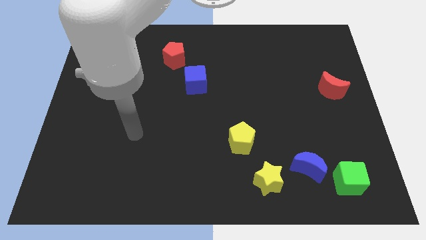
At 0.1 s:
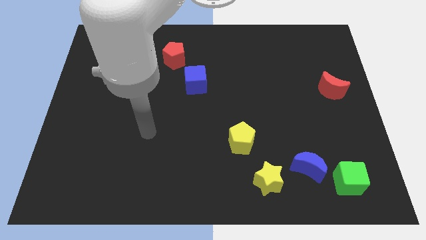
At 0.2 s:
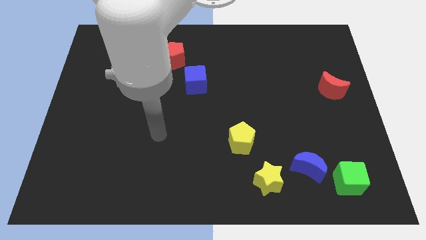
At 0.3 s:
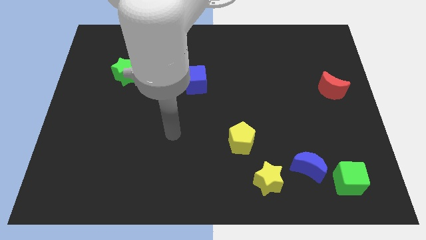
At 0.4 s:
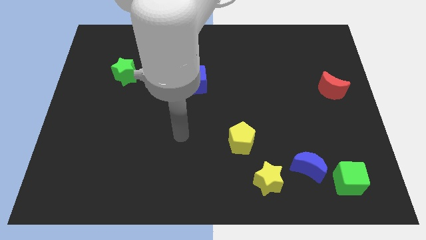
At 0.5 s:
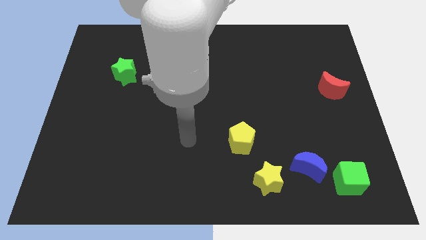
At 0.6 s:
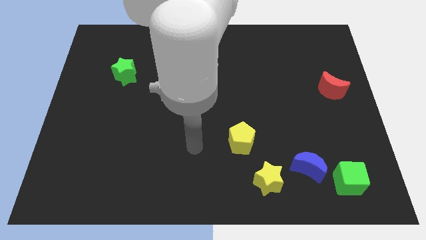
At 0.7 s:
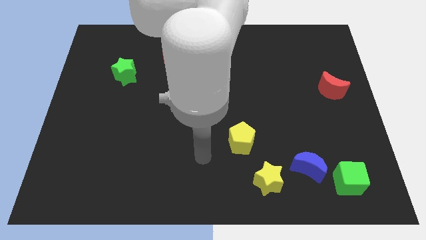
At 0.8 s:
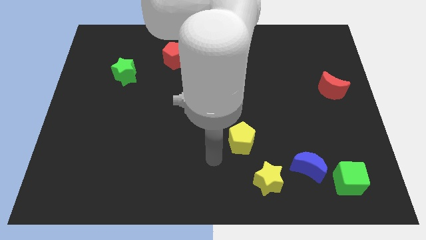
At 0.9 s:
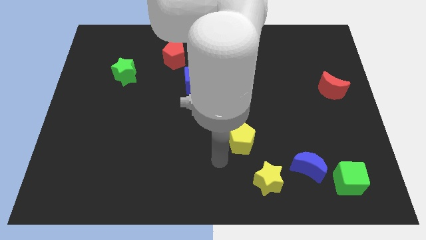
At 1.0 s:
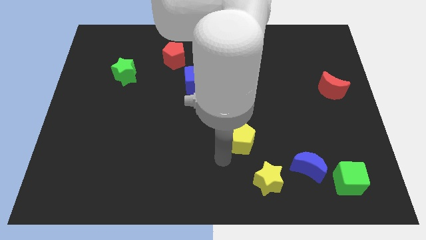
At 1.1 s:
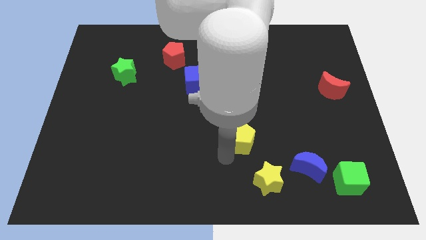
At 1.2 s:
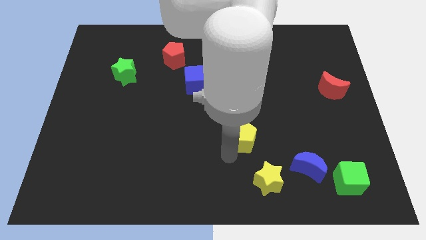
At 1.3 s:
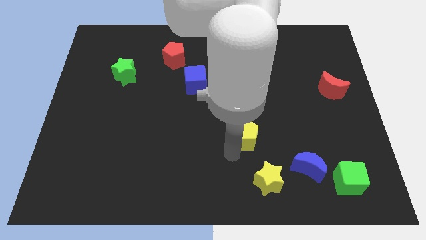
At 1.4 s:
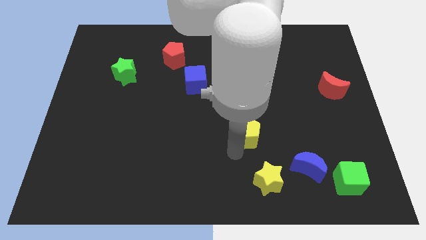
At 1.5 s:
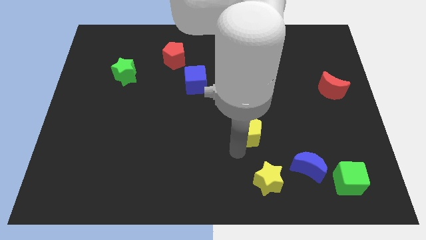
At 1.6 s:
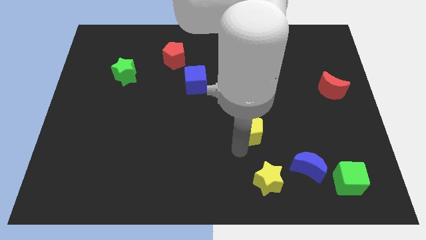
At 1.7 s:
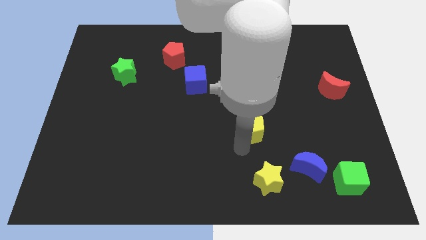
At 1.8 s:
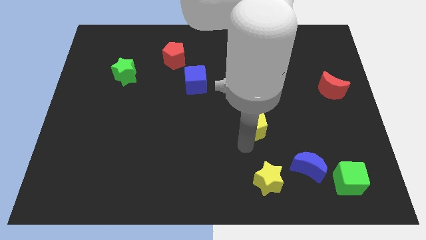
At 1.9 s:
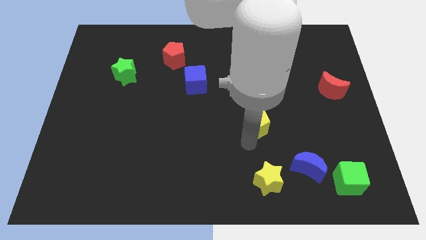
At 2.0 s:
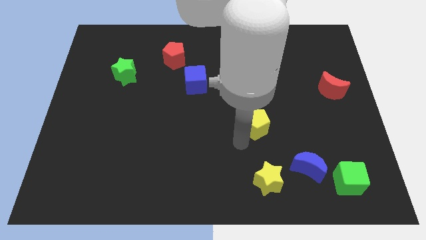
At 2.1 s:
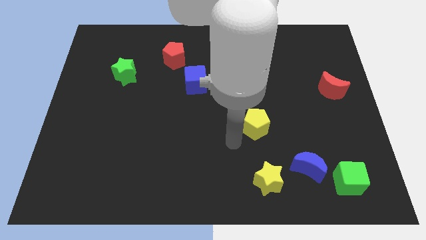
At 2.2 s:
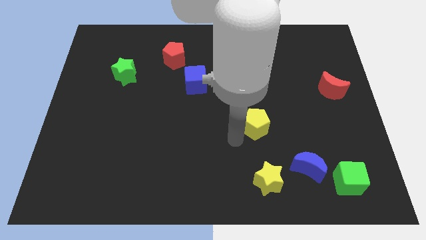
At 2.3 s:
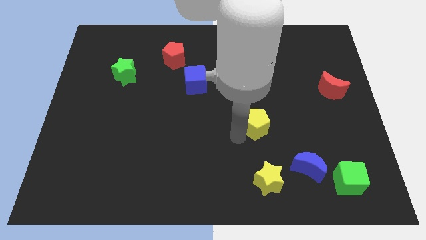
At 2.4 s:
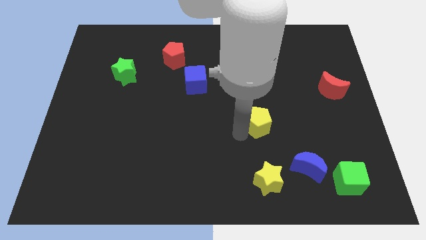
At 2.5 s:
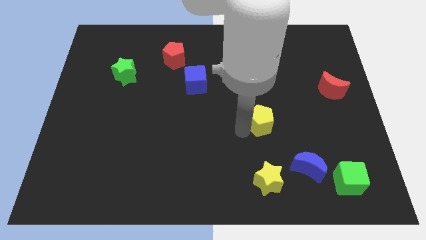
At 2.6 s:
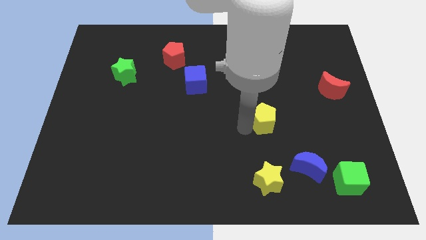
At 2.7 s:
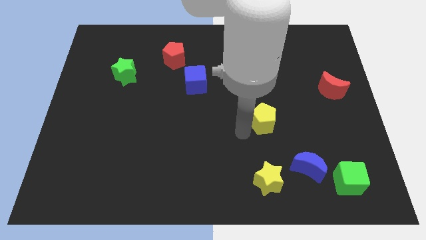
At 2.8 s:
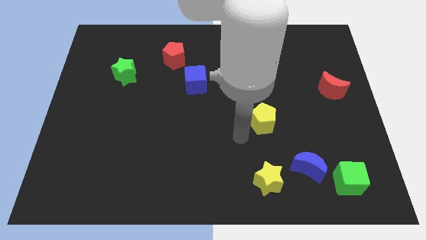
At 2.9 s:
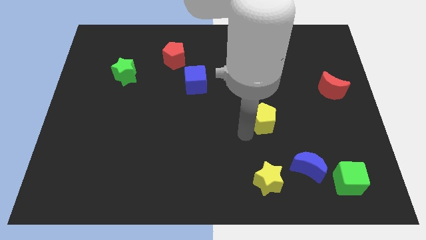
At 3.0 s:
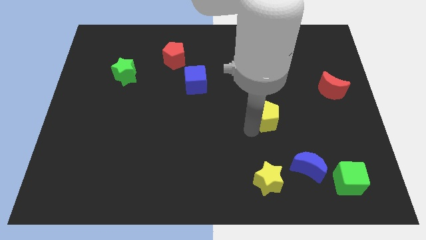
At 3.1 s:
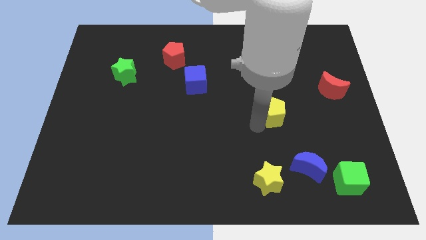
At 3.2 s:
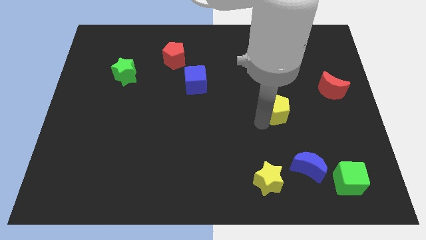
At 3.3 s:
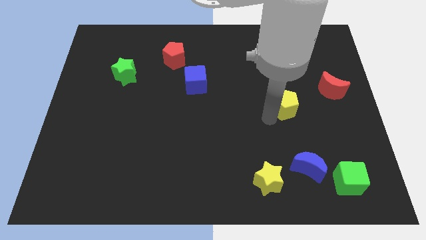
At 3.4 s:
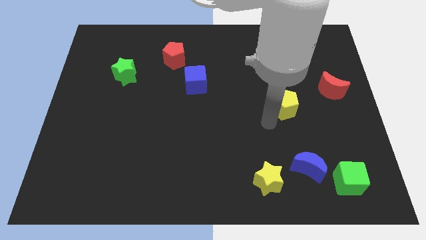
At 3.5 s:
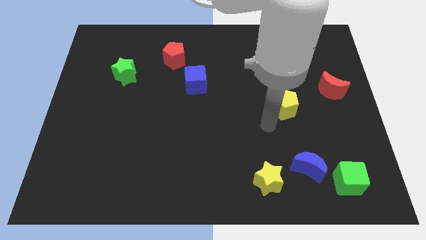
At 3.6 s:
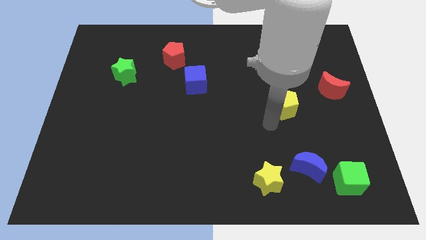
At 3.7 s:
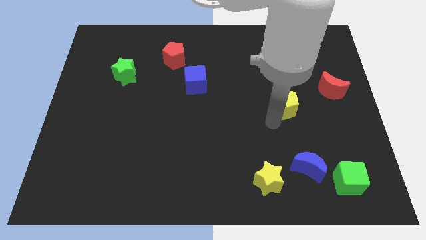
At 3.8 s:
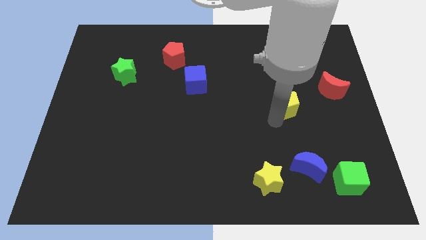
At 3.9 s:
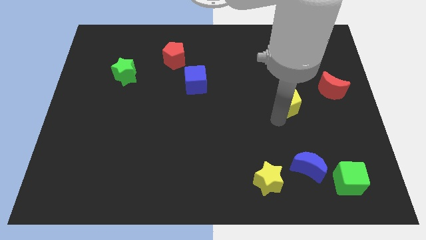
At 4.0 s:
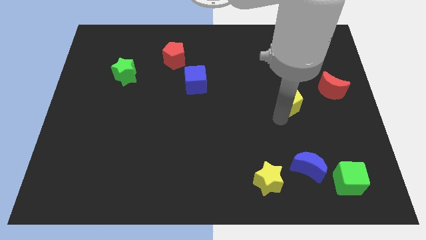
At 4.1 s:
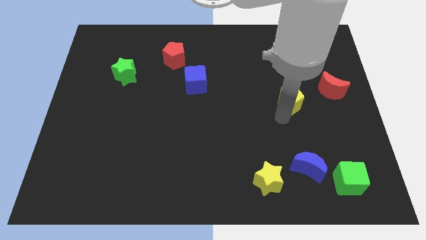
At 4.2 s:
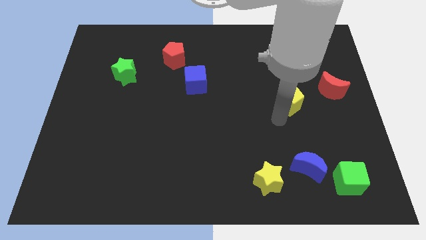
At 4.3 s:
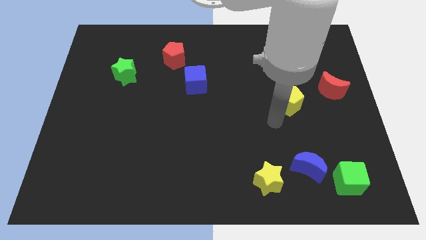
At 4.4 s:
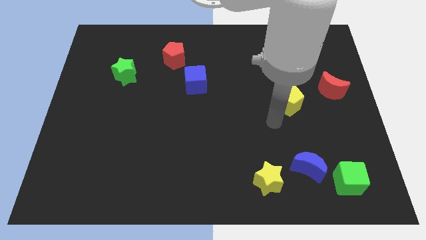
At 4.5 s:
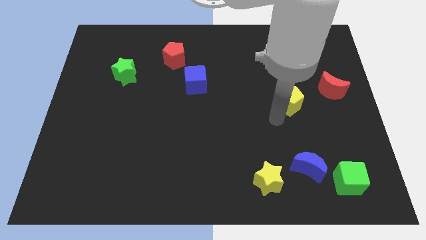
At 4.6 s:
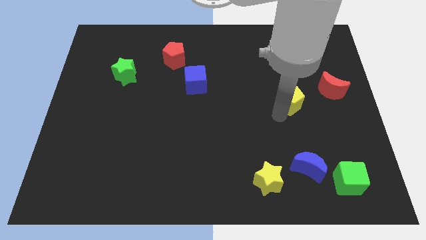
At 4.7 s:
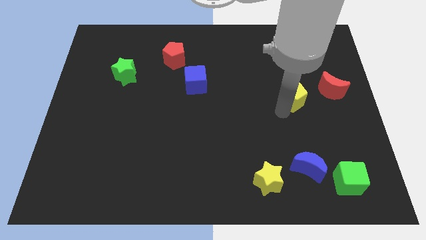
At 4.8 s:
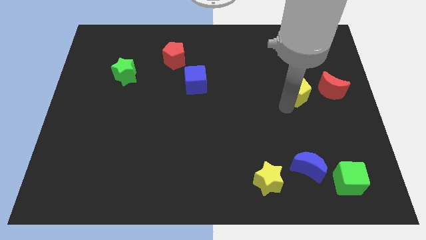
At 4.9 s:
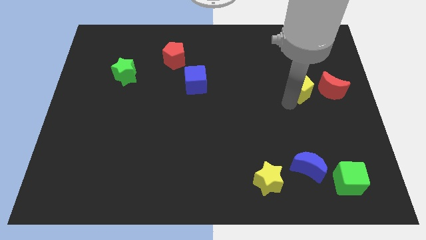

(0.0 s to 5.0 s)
push the yellow pentagon upwards and right diagonally

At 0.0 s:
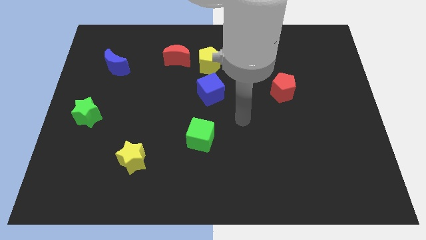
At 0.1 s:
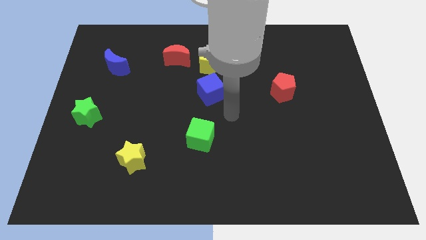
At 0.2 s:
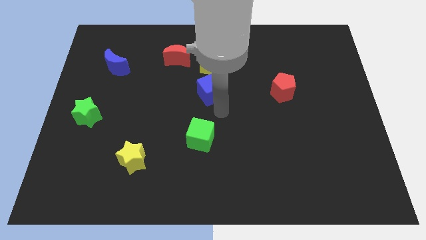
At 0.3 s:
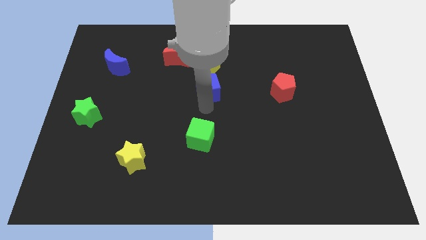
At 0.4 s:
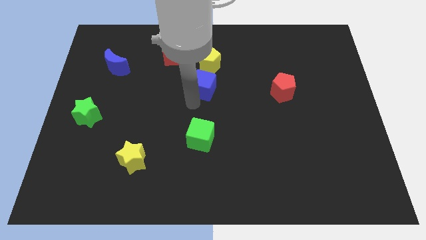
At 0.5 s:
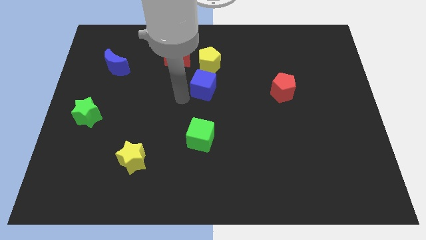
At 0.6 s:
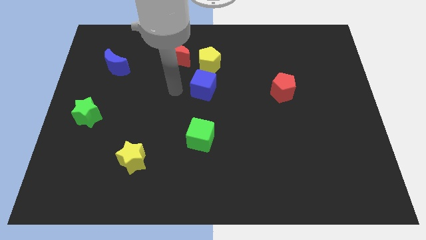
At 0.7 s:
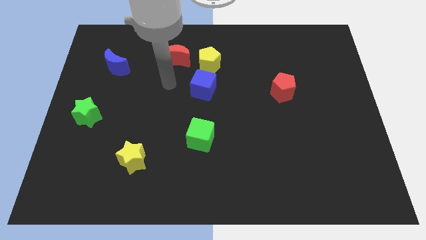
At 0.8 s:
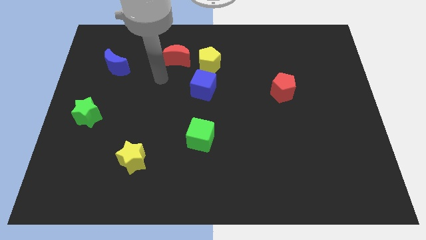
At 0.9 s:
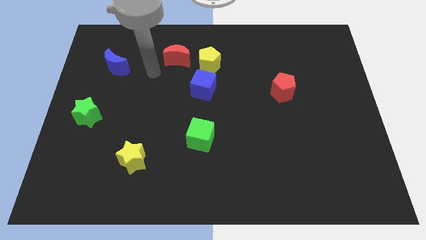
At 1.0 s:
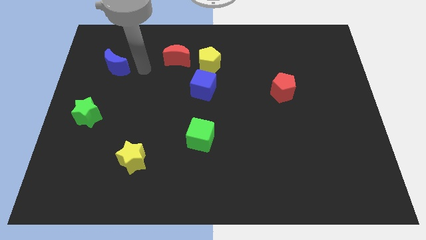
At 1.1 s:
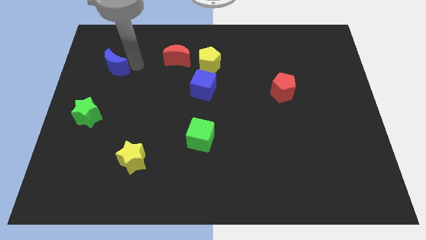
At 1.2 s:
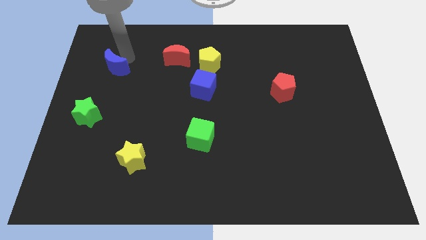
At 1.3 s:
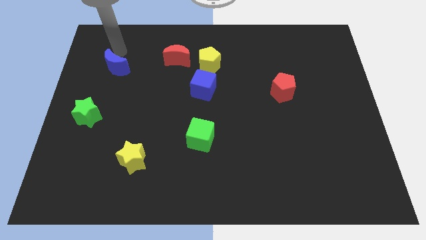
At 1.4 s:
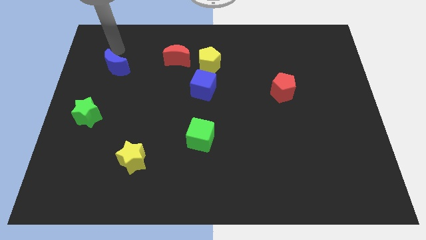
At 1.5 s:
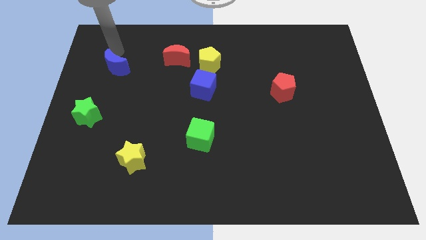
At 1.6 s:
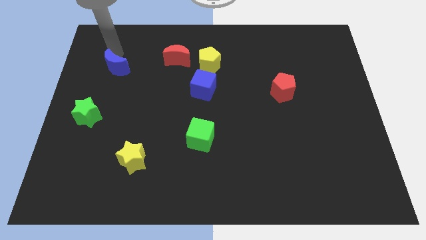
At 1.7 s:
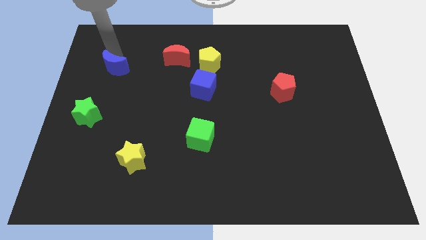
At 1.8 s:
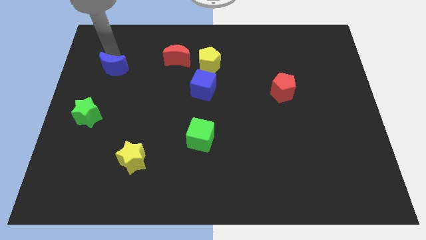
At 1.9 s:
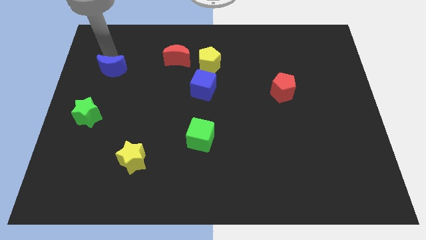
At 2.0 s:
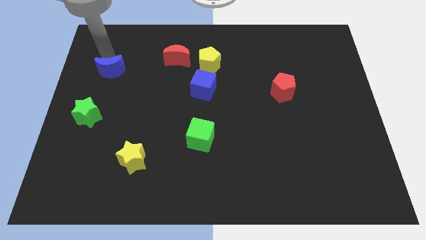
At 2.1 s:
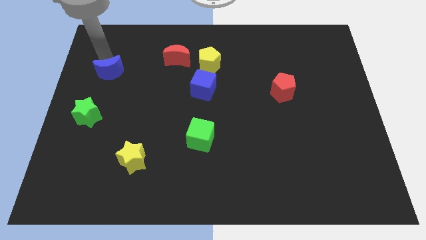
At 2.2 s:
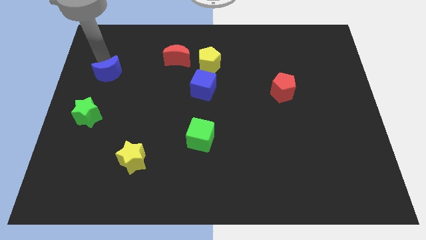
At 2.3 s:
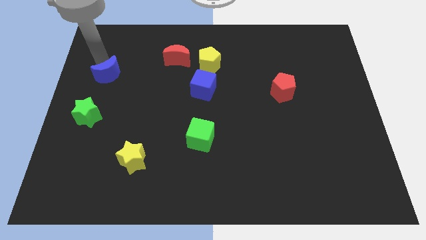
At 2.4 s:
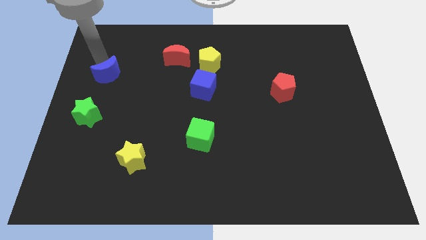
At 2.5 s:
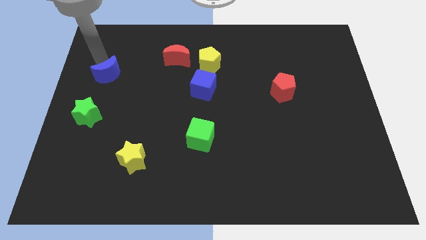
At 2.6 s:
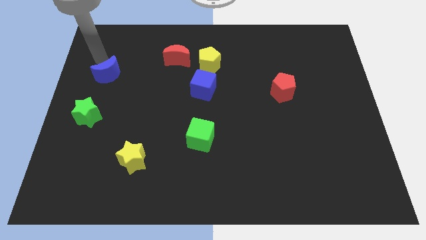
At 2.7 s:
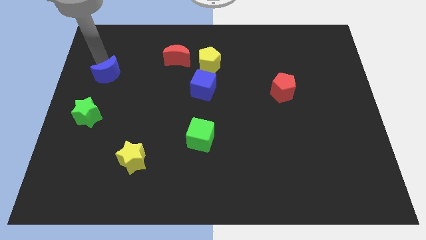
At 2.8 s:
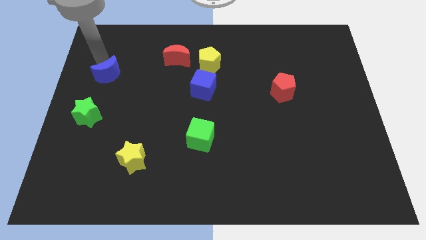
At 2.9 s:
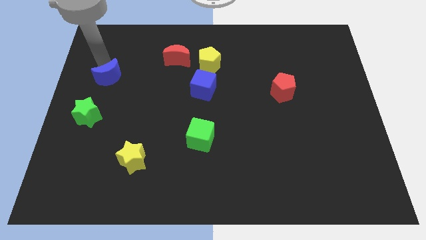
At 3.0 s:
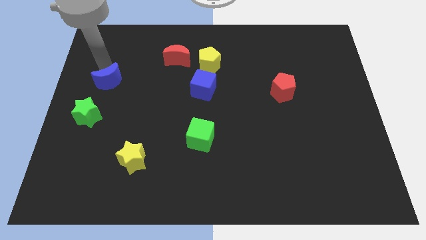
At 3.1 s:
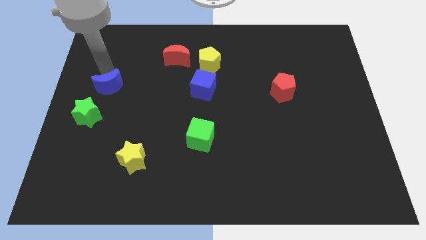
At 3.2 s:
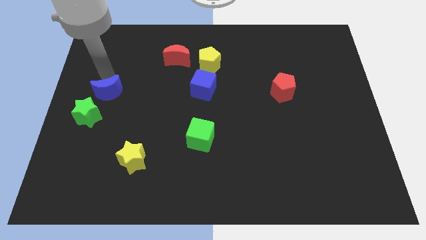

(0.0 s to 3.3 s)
slightly move the blue moon downwards
